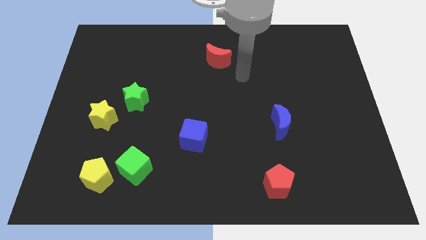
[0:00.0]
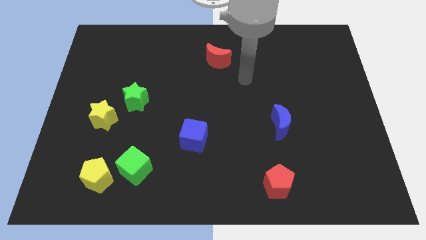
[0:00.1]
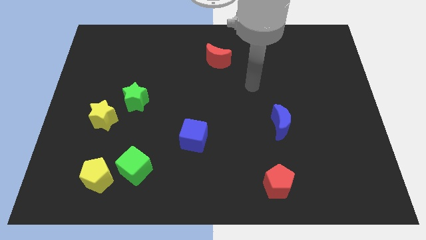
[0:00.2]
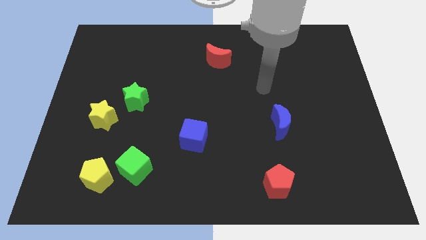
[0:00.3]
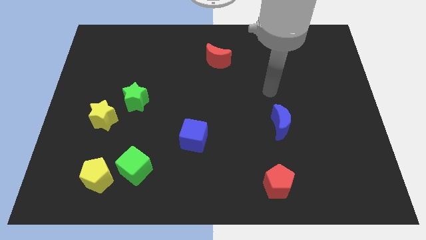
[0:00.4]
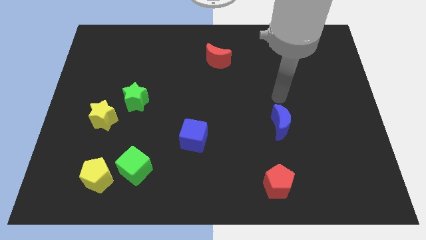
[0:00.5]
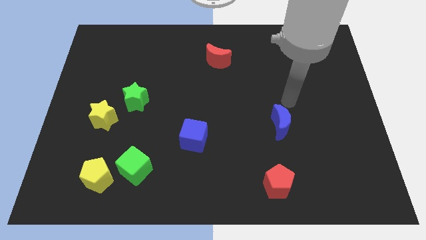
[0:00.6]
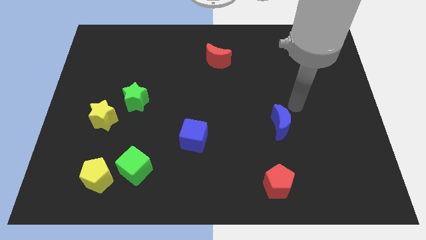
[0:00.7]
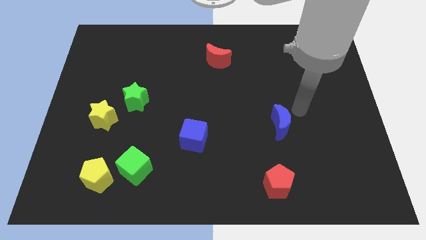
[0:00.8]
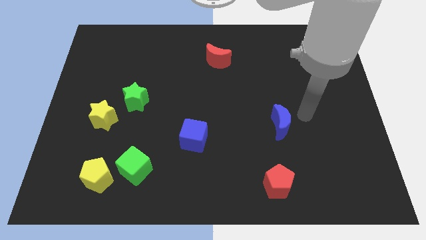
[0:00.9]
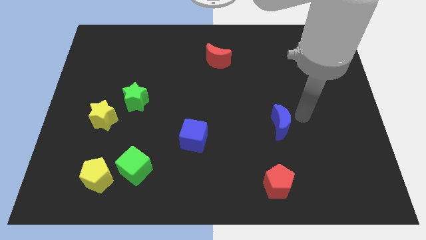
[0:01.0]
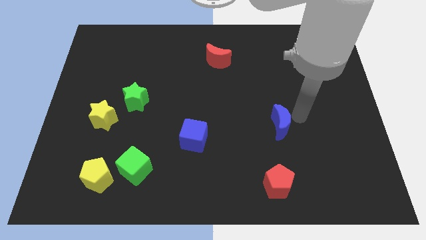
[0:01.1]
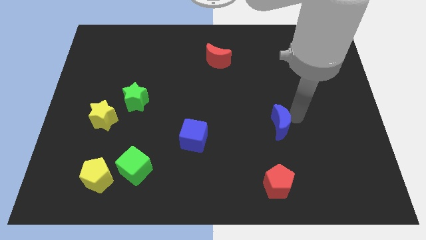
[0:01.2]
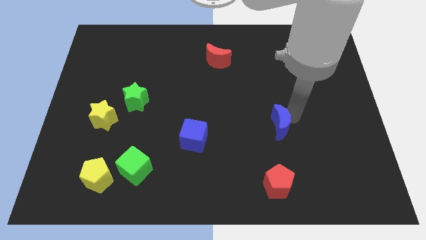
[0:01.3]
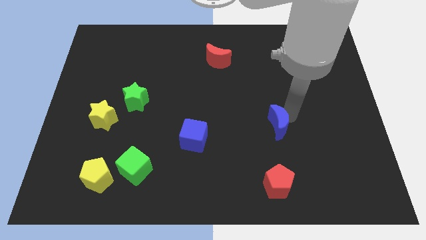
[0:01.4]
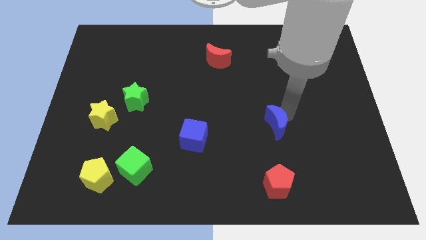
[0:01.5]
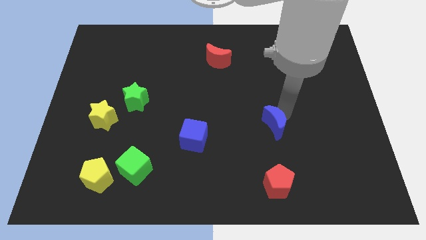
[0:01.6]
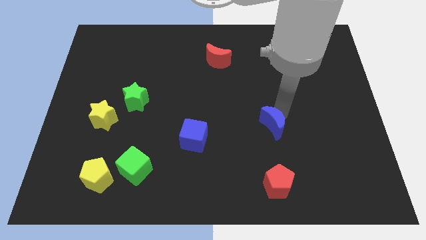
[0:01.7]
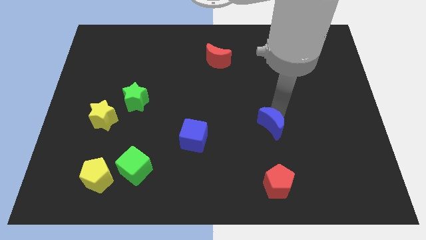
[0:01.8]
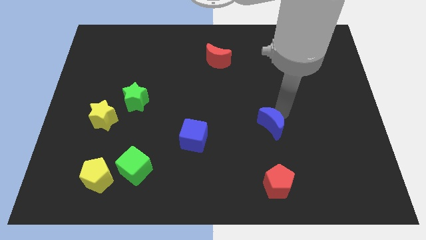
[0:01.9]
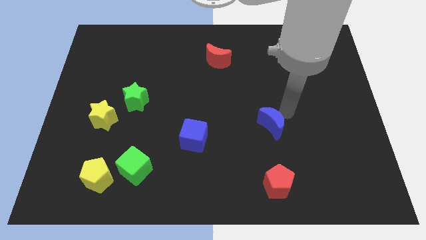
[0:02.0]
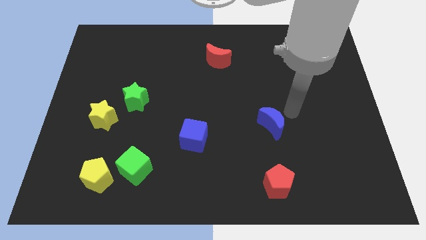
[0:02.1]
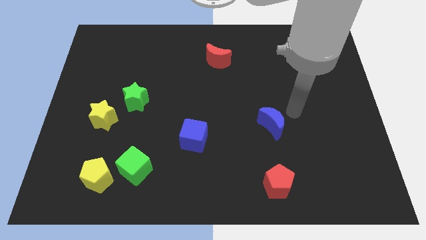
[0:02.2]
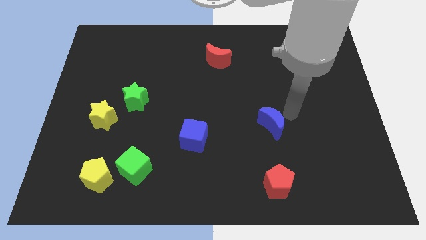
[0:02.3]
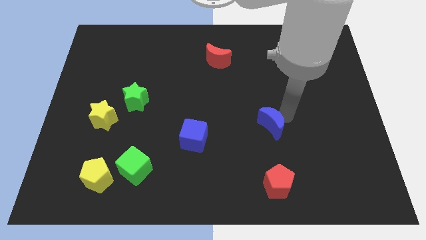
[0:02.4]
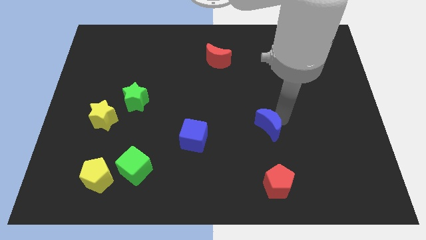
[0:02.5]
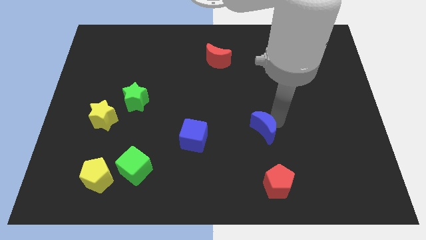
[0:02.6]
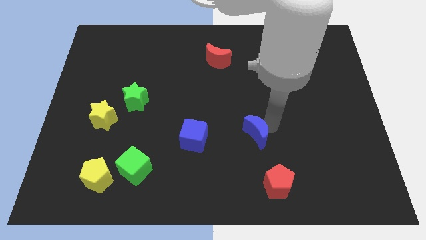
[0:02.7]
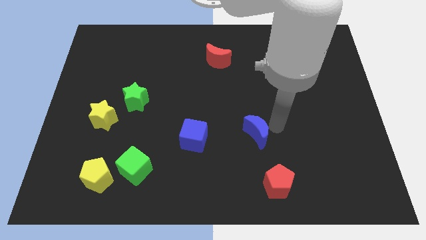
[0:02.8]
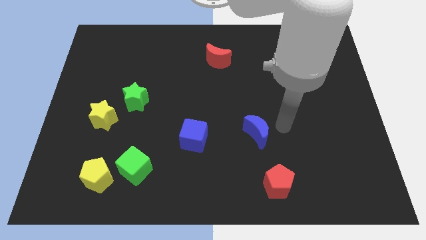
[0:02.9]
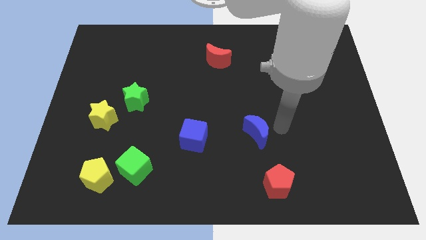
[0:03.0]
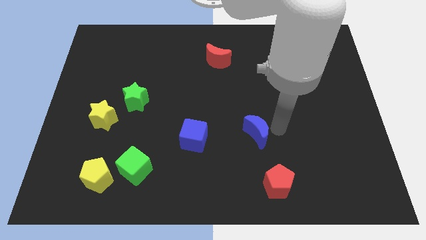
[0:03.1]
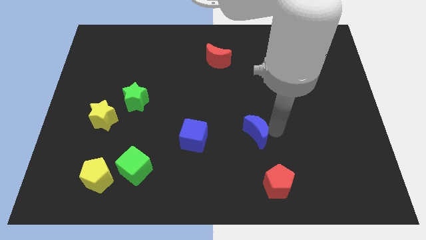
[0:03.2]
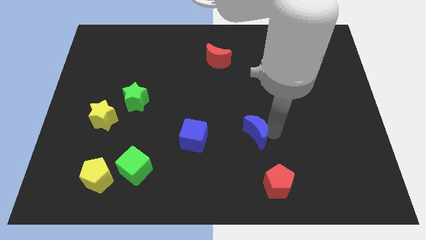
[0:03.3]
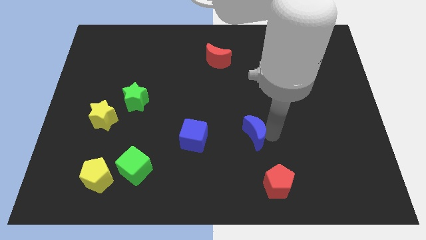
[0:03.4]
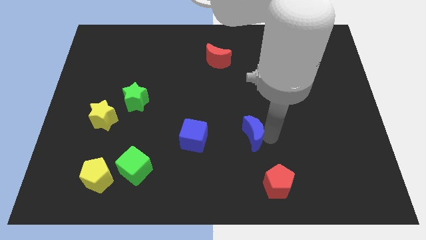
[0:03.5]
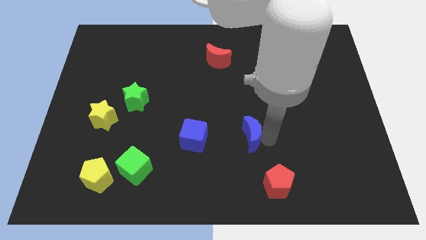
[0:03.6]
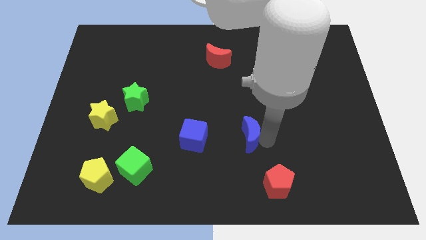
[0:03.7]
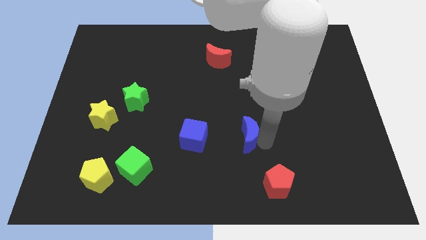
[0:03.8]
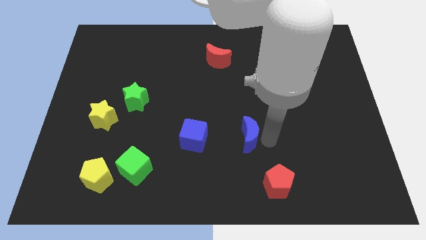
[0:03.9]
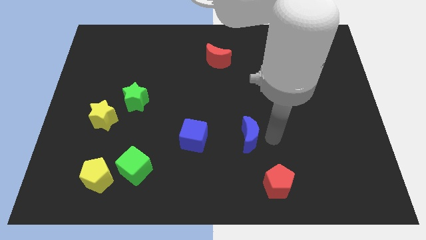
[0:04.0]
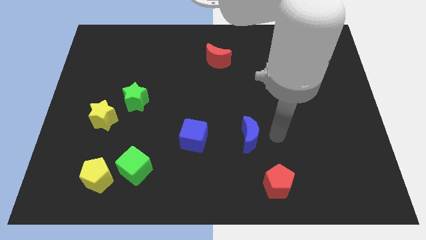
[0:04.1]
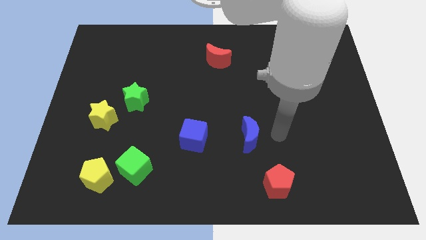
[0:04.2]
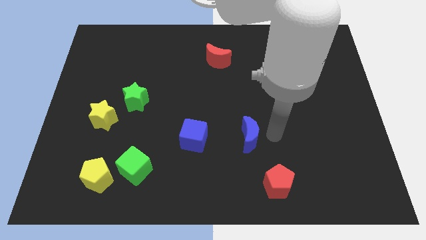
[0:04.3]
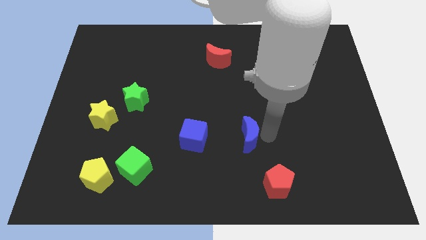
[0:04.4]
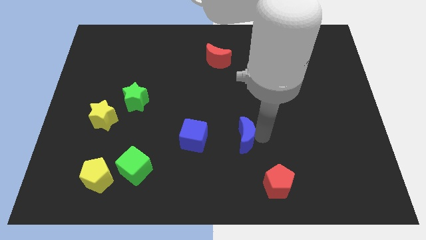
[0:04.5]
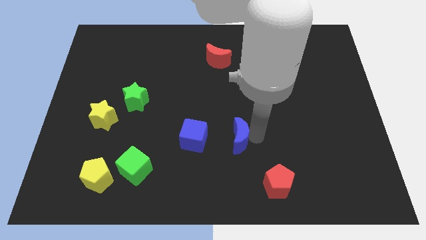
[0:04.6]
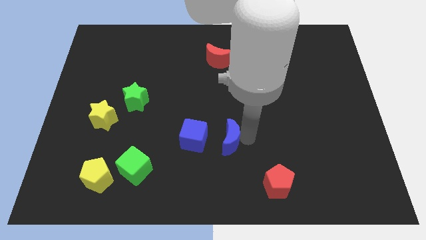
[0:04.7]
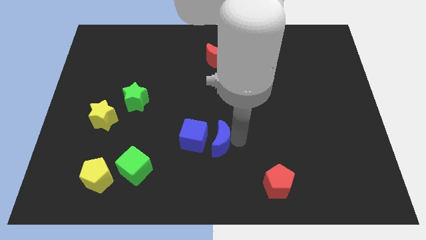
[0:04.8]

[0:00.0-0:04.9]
push the blue moon towards the blue cube

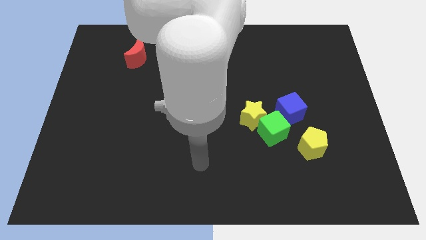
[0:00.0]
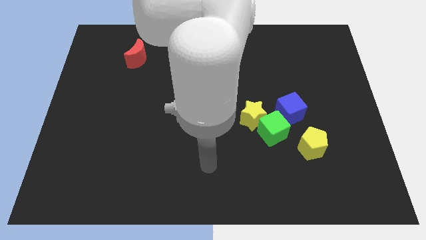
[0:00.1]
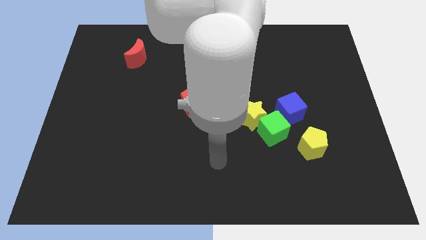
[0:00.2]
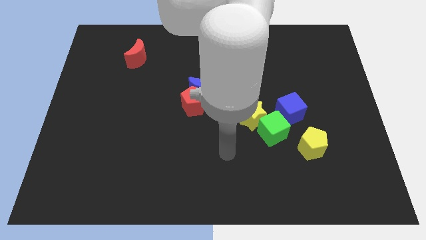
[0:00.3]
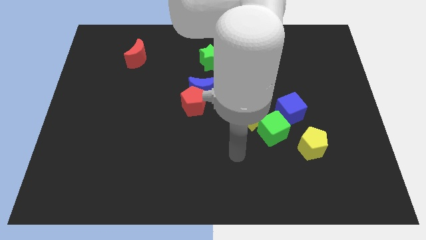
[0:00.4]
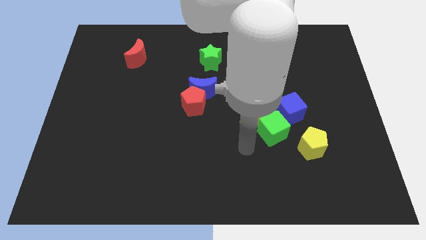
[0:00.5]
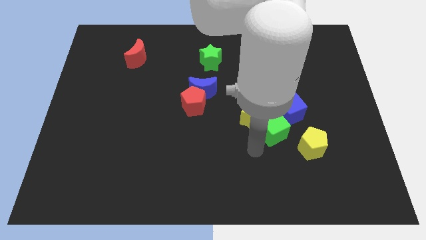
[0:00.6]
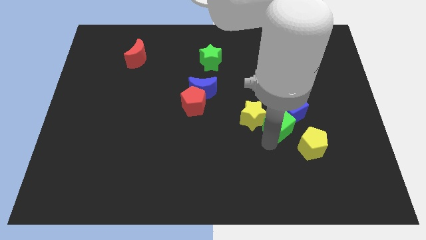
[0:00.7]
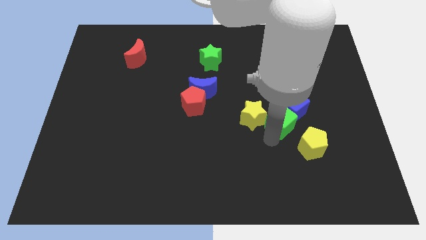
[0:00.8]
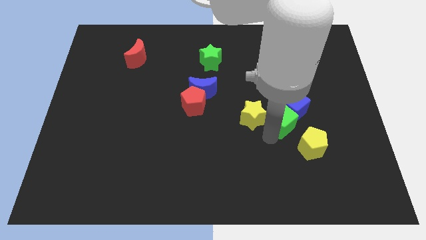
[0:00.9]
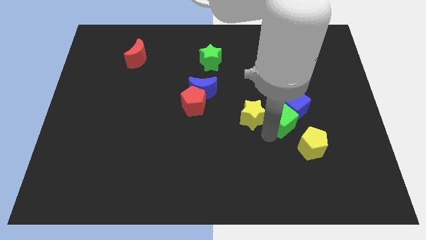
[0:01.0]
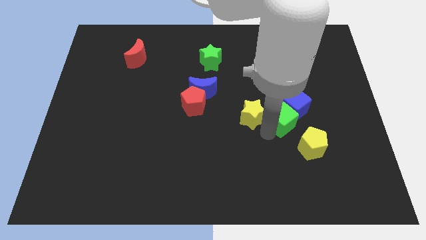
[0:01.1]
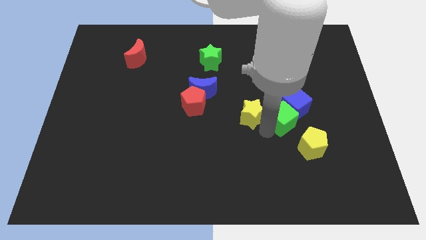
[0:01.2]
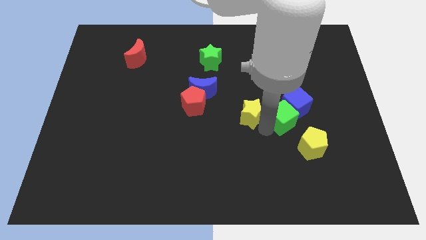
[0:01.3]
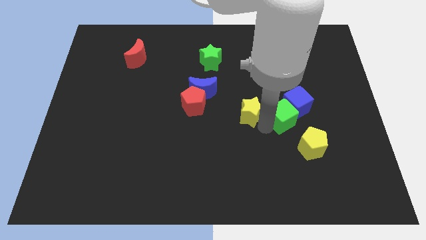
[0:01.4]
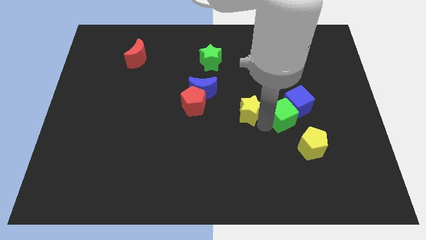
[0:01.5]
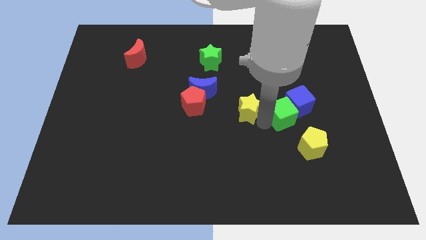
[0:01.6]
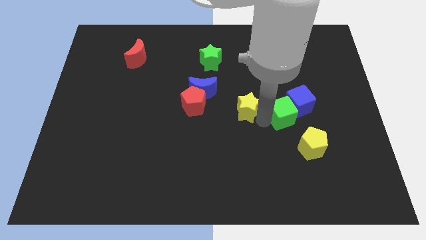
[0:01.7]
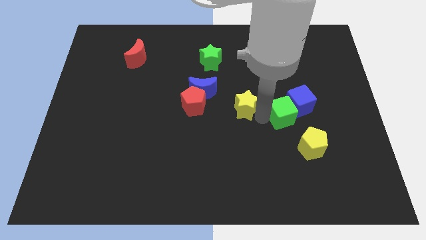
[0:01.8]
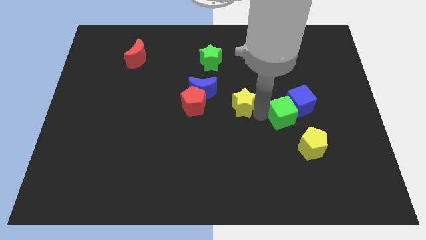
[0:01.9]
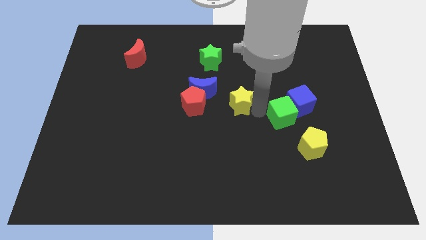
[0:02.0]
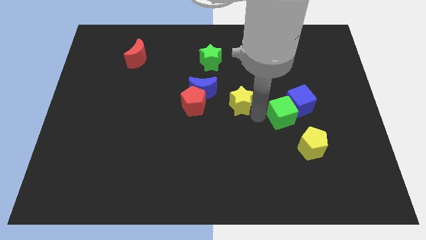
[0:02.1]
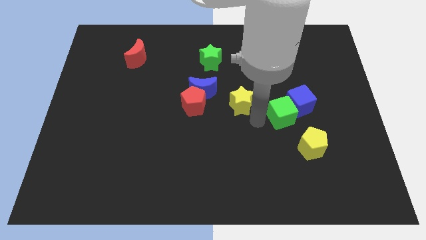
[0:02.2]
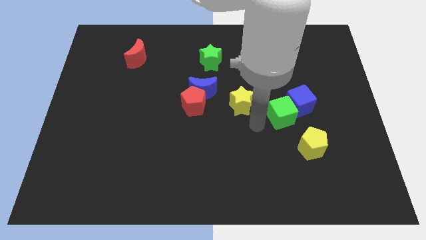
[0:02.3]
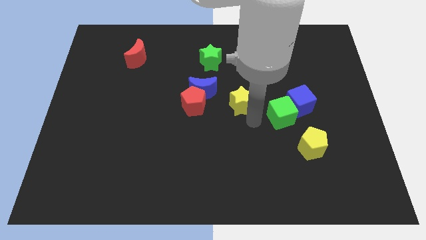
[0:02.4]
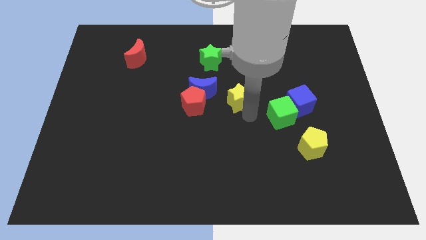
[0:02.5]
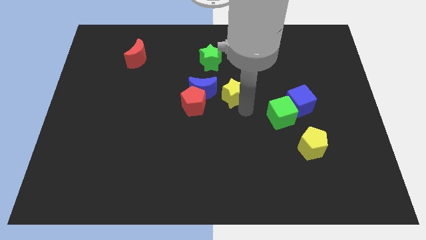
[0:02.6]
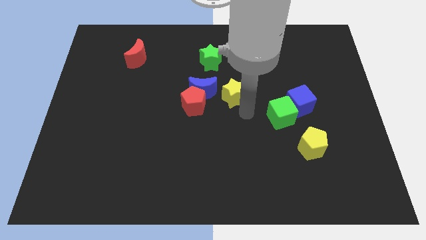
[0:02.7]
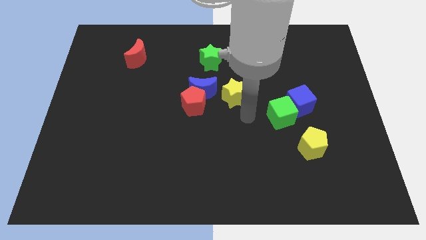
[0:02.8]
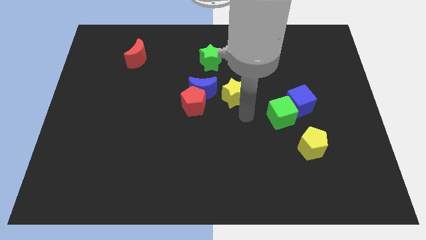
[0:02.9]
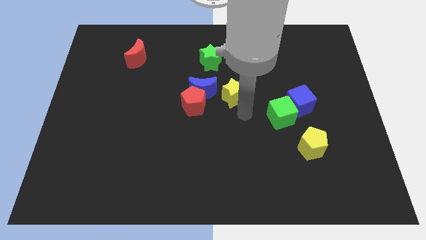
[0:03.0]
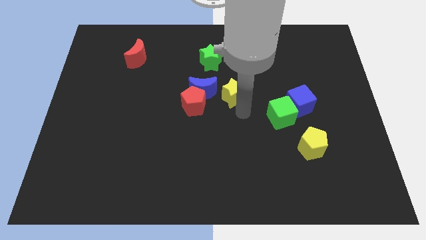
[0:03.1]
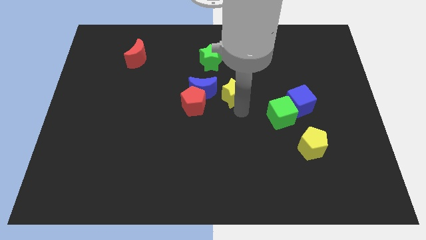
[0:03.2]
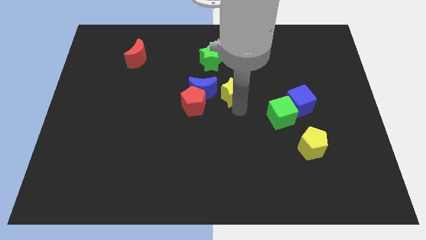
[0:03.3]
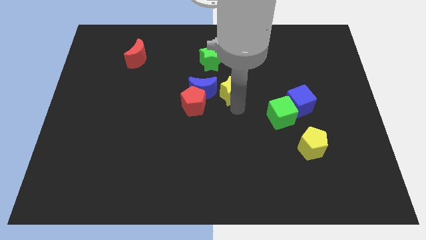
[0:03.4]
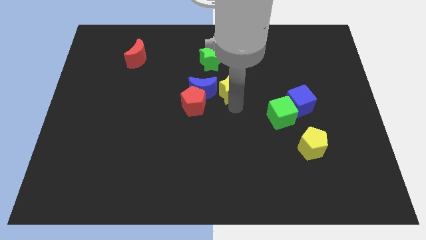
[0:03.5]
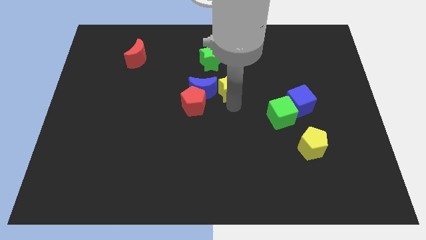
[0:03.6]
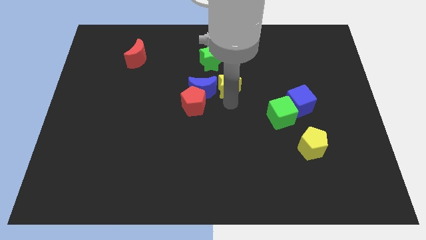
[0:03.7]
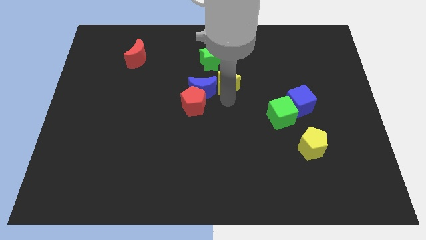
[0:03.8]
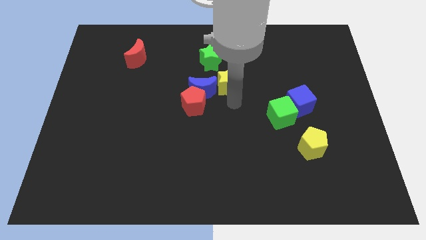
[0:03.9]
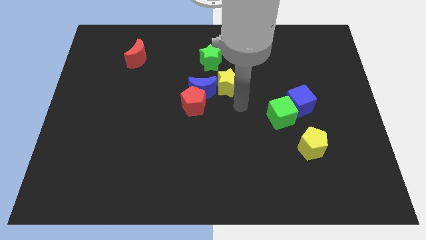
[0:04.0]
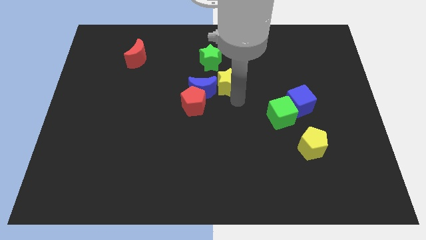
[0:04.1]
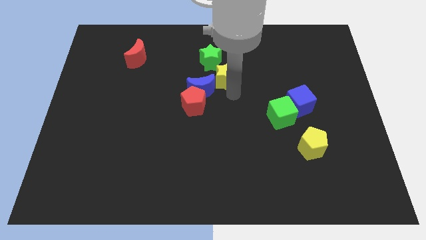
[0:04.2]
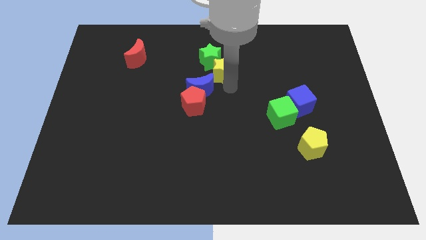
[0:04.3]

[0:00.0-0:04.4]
push the yellow star to the green star
